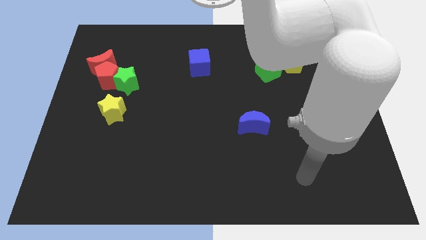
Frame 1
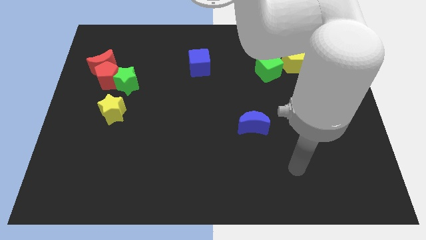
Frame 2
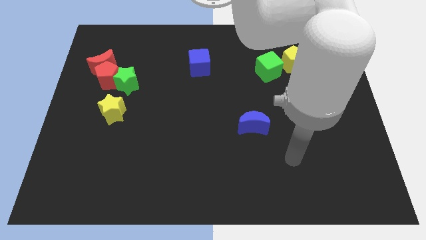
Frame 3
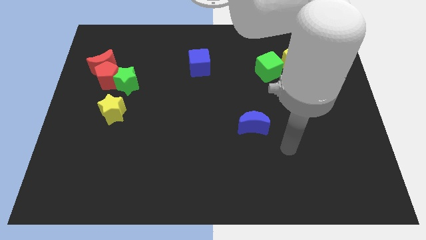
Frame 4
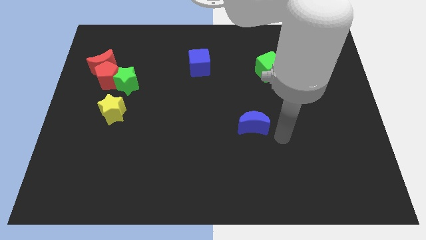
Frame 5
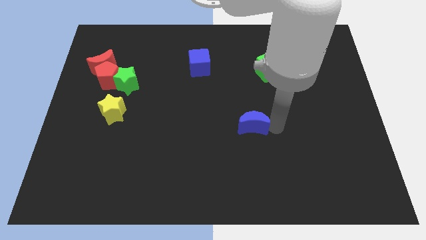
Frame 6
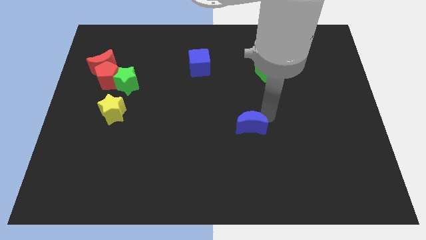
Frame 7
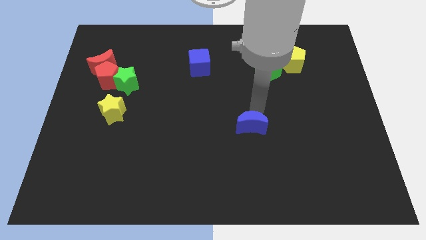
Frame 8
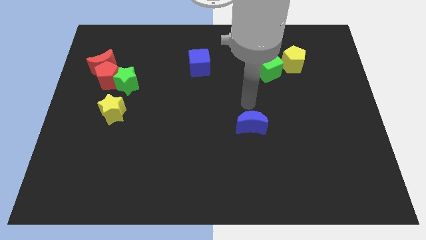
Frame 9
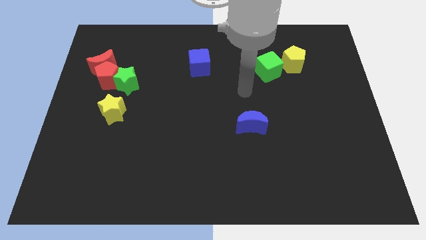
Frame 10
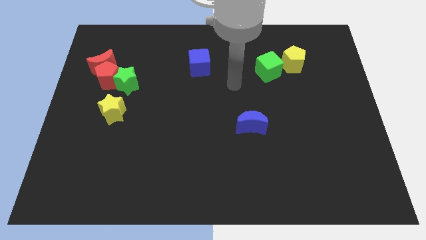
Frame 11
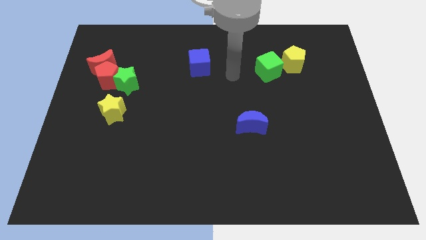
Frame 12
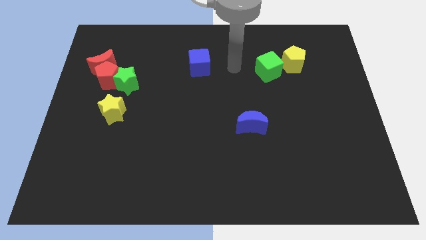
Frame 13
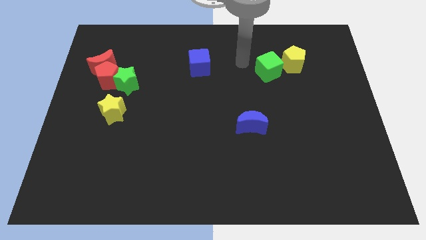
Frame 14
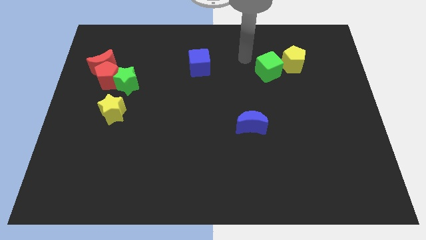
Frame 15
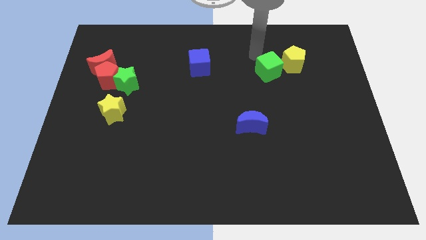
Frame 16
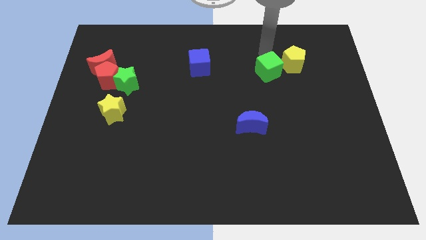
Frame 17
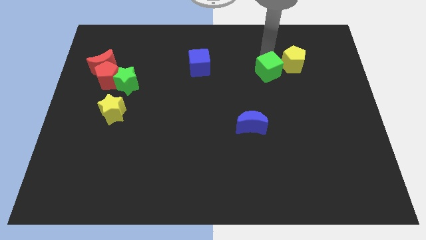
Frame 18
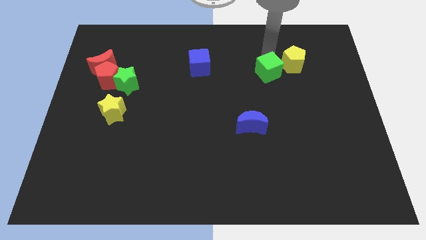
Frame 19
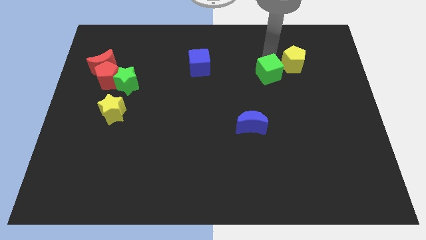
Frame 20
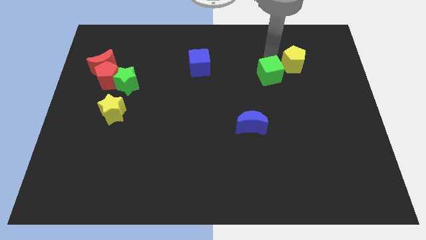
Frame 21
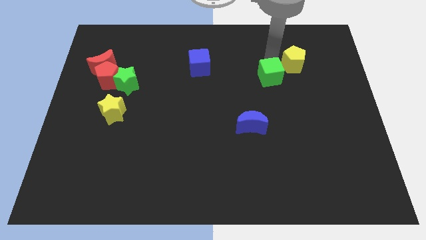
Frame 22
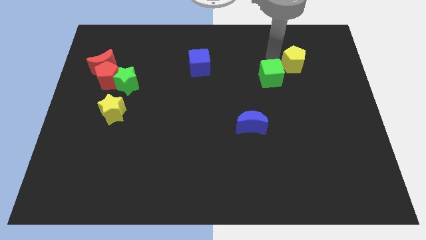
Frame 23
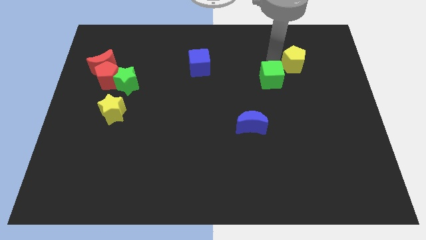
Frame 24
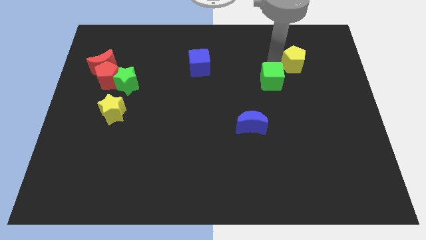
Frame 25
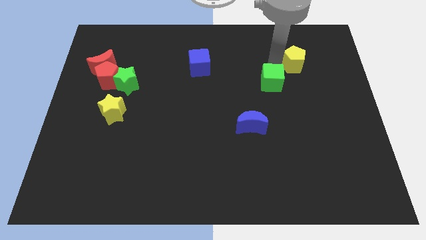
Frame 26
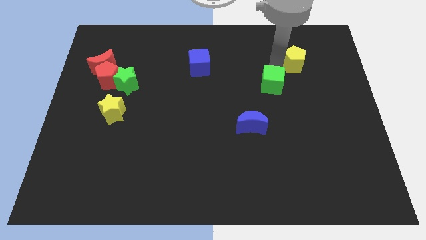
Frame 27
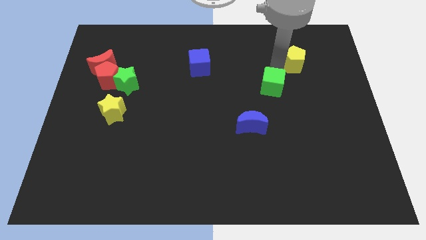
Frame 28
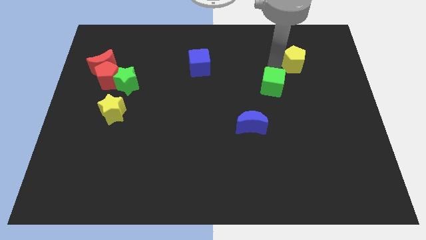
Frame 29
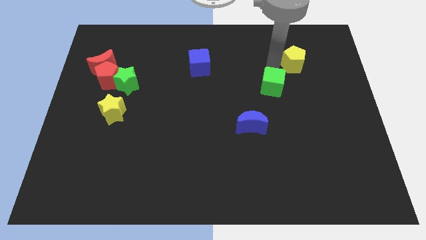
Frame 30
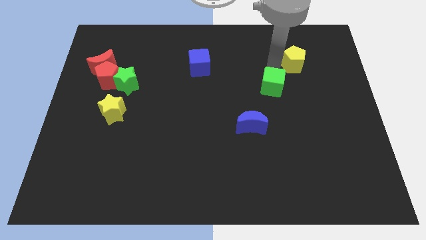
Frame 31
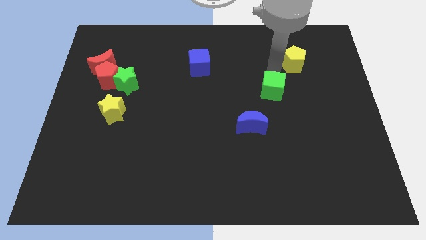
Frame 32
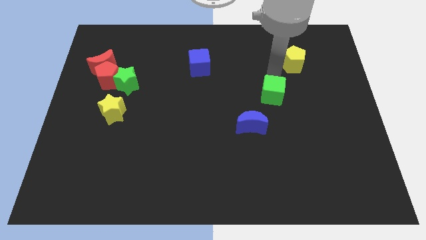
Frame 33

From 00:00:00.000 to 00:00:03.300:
push the green cube slightly downwards

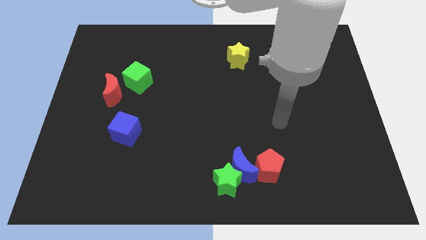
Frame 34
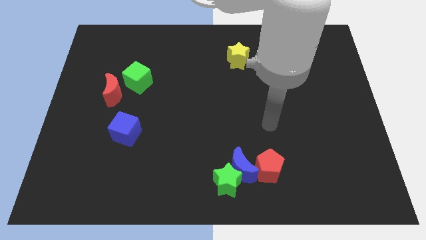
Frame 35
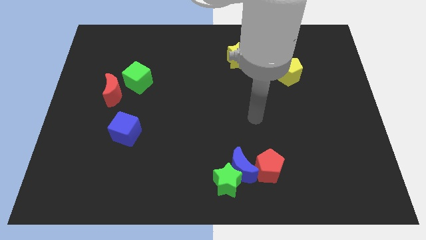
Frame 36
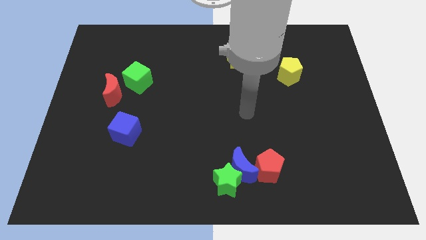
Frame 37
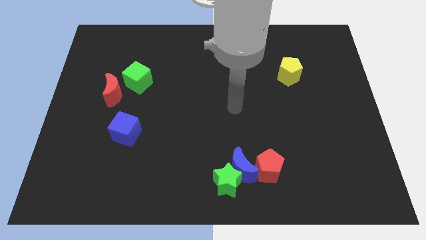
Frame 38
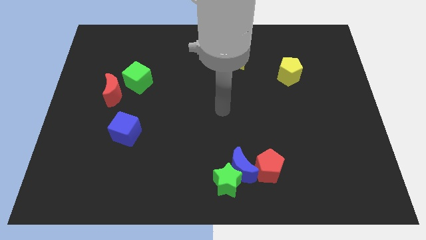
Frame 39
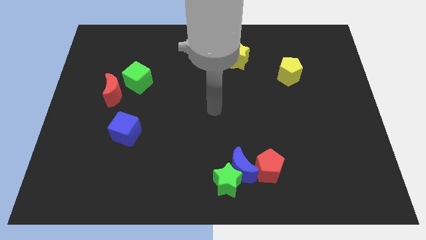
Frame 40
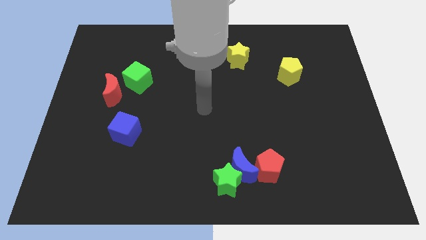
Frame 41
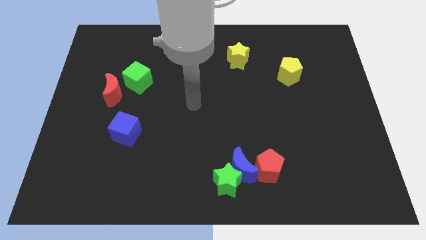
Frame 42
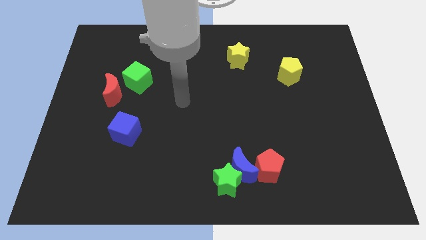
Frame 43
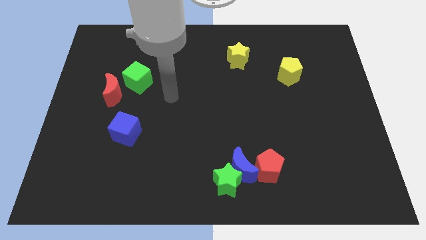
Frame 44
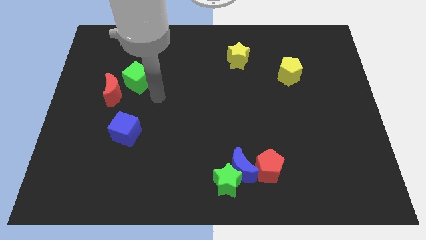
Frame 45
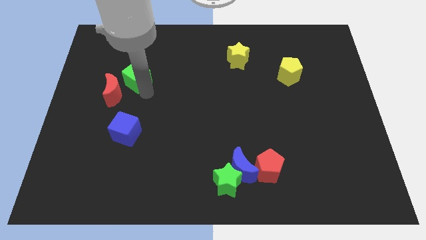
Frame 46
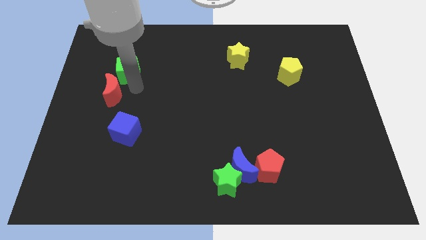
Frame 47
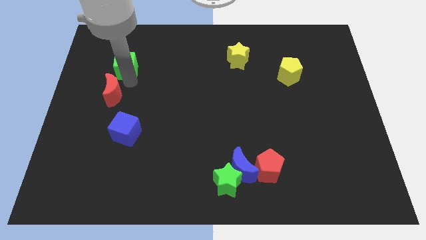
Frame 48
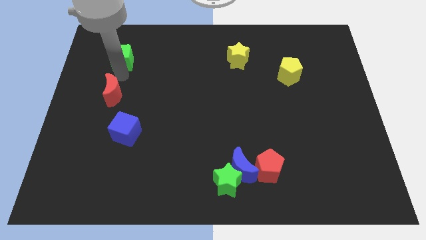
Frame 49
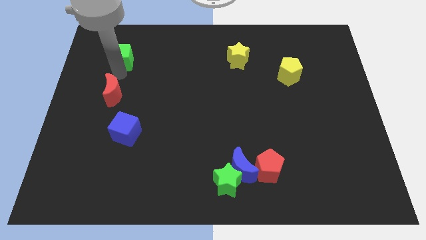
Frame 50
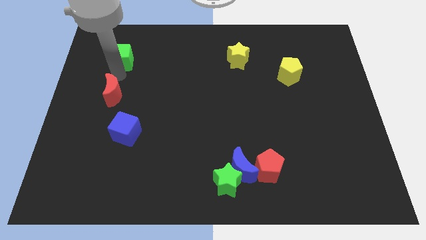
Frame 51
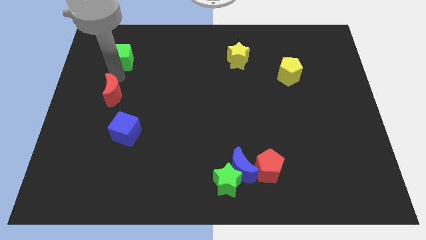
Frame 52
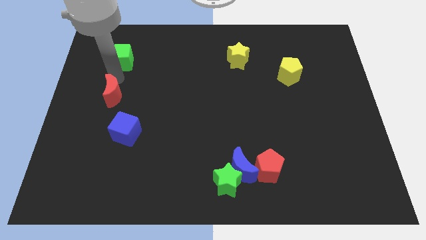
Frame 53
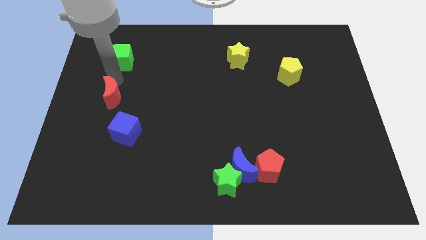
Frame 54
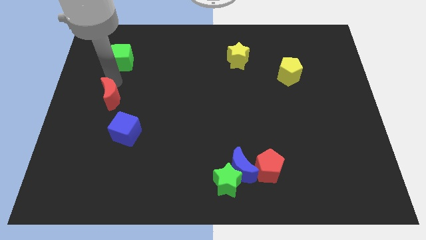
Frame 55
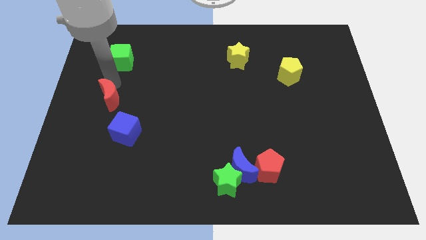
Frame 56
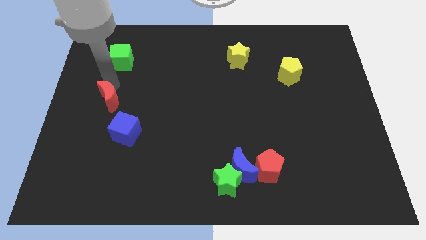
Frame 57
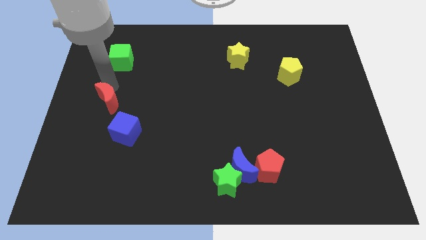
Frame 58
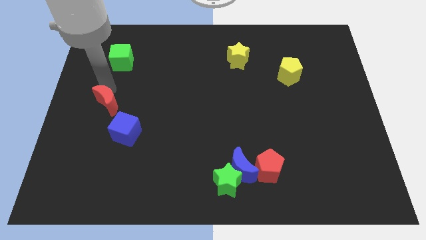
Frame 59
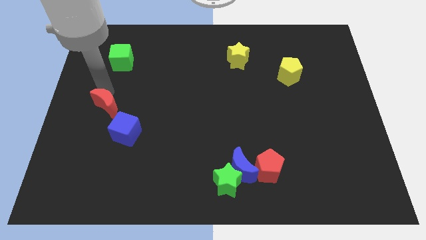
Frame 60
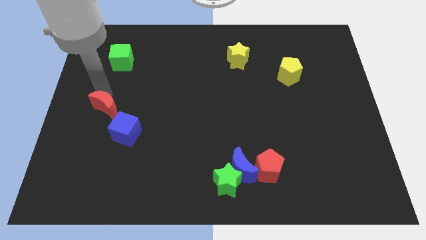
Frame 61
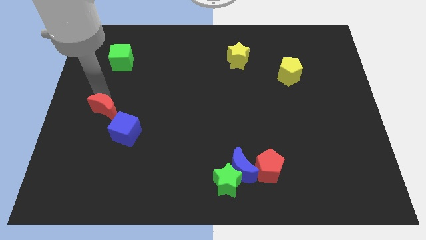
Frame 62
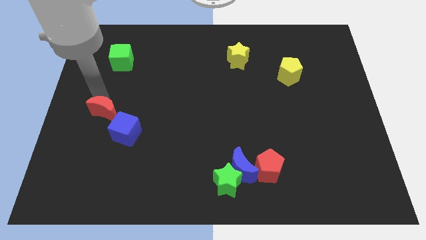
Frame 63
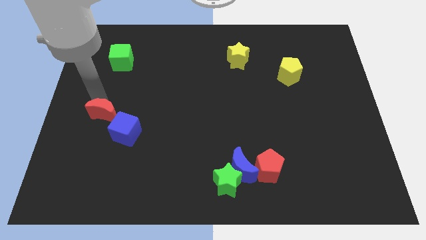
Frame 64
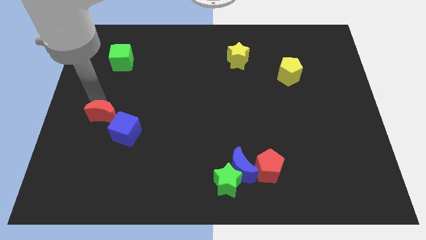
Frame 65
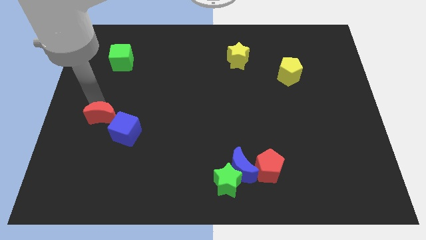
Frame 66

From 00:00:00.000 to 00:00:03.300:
slightly push the red moon downwards

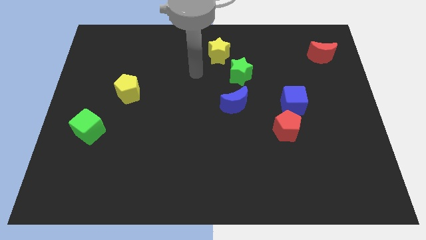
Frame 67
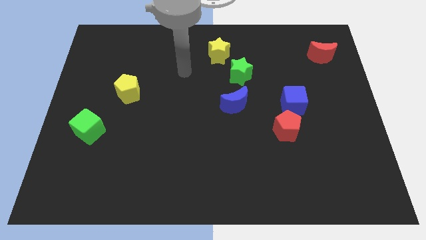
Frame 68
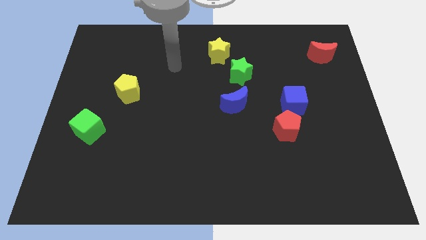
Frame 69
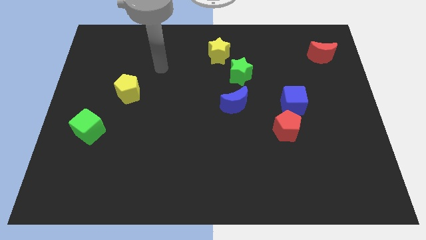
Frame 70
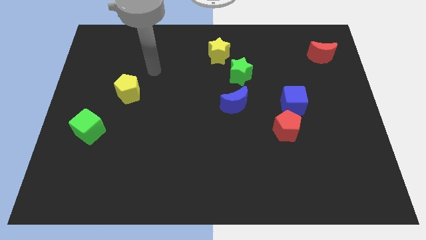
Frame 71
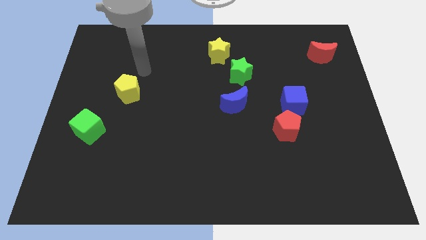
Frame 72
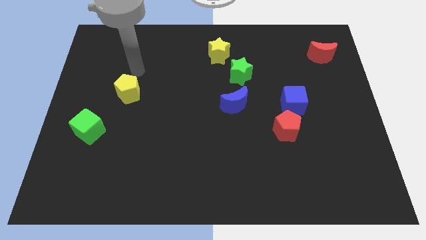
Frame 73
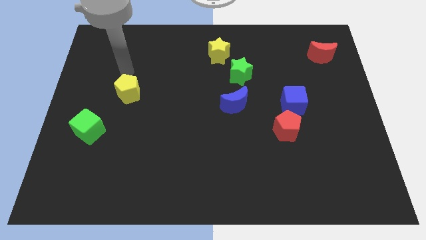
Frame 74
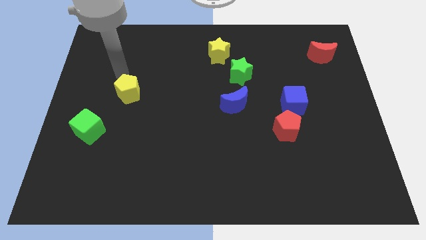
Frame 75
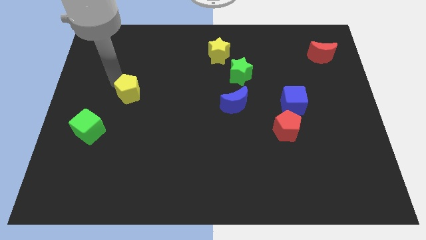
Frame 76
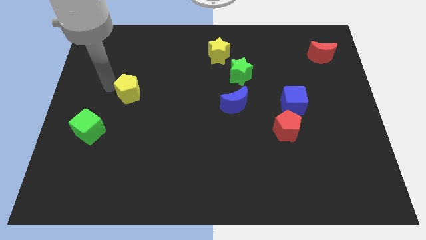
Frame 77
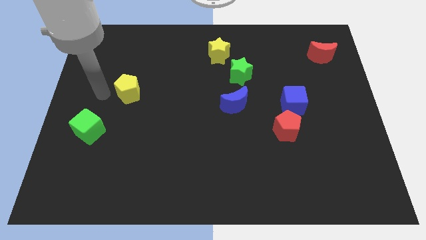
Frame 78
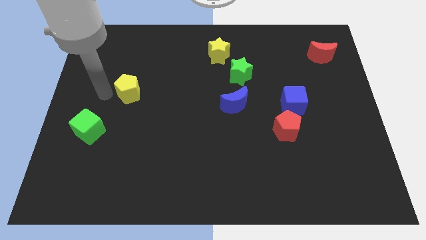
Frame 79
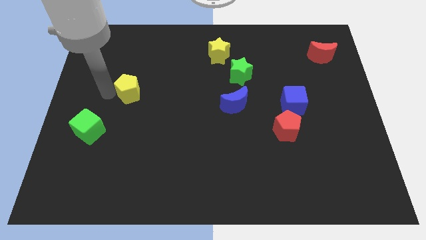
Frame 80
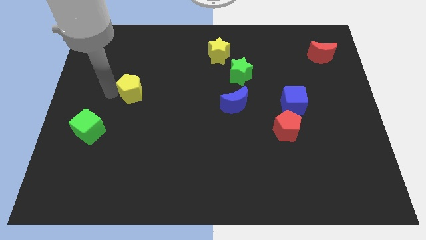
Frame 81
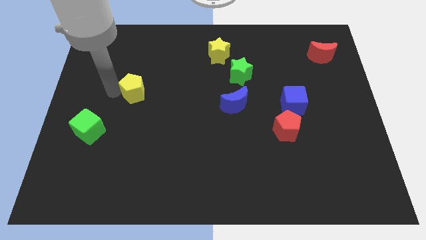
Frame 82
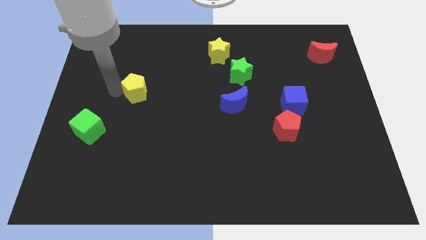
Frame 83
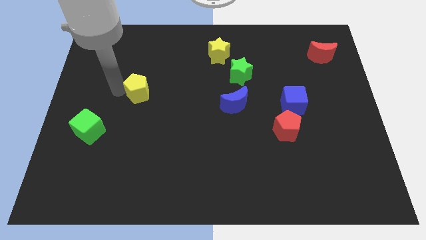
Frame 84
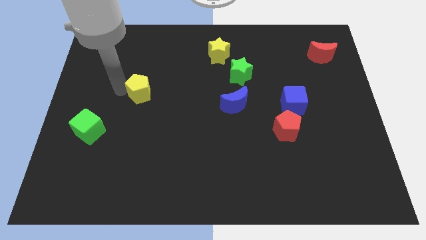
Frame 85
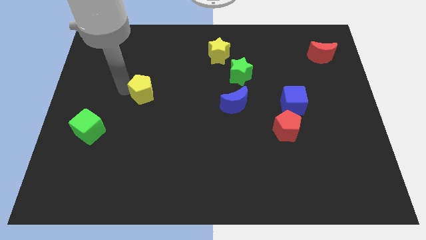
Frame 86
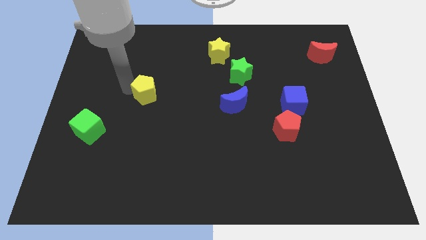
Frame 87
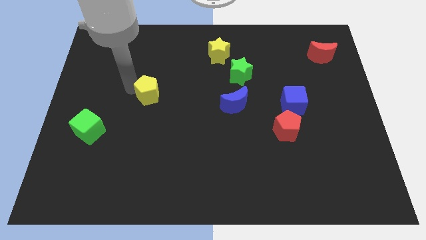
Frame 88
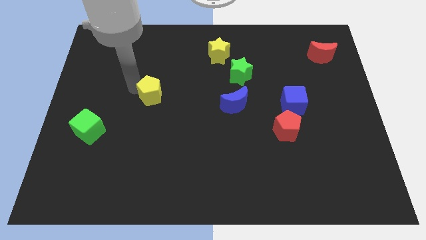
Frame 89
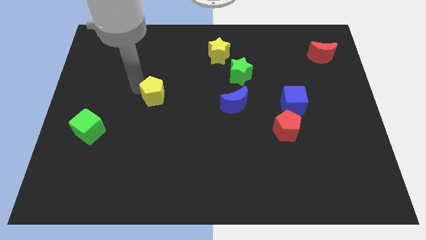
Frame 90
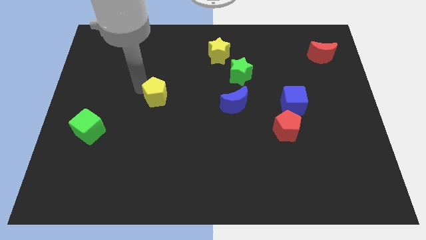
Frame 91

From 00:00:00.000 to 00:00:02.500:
push the yellow pentagon a little bit right
